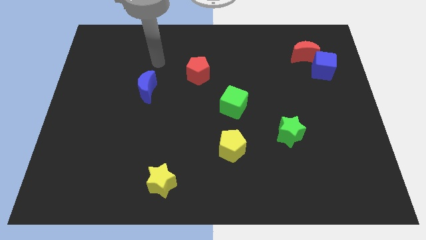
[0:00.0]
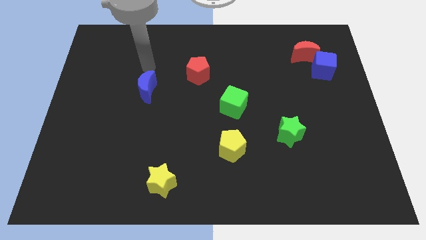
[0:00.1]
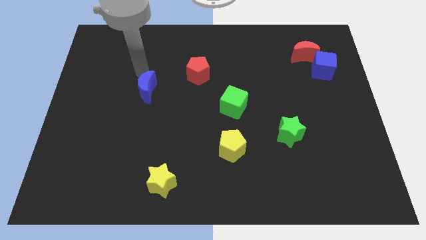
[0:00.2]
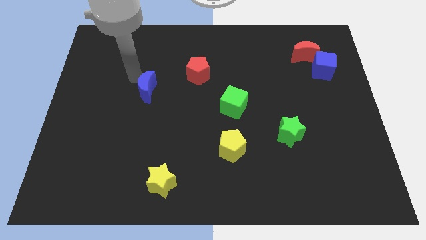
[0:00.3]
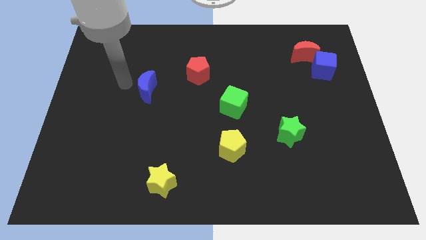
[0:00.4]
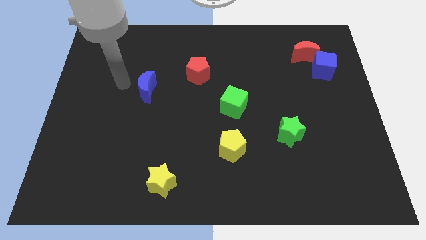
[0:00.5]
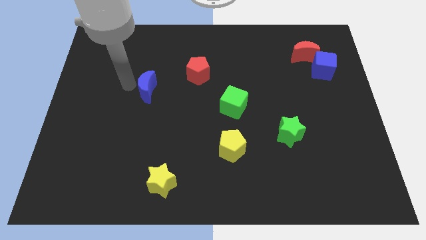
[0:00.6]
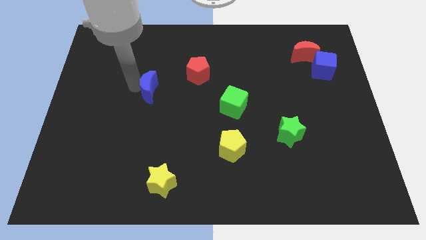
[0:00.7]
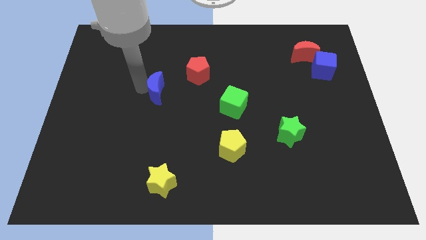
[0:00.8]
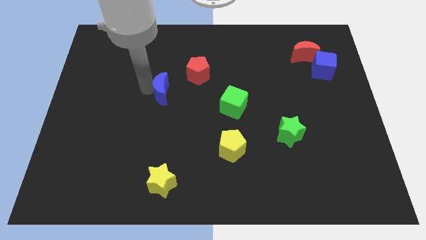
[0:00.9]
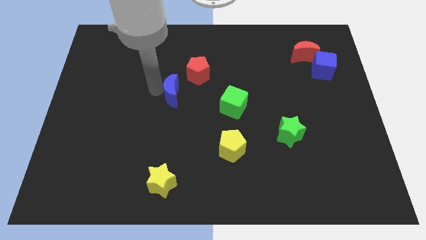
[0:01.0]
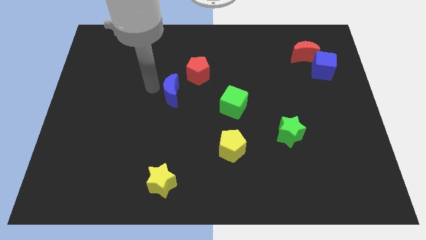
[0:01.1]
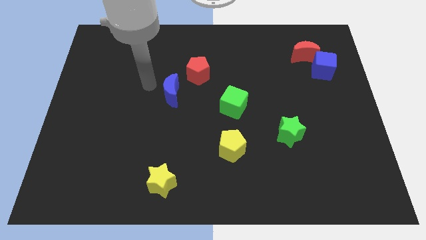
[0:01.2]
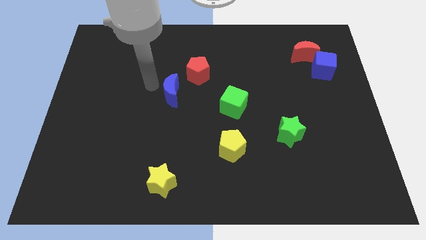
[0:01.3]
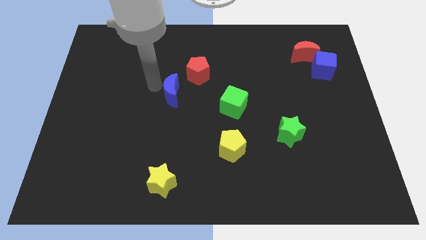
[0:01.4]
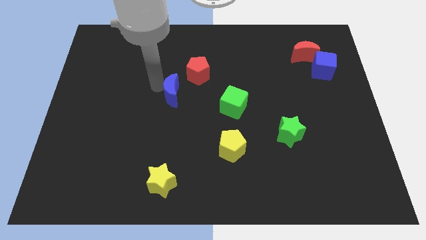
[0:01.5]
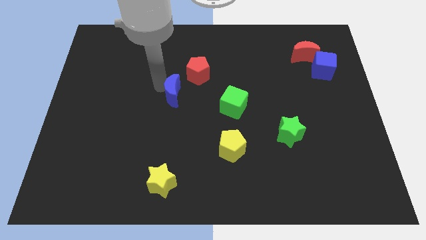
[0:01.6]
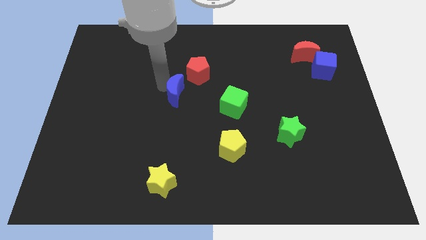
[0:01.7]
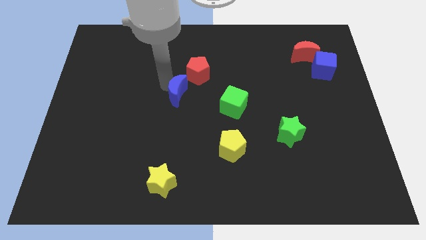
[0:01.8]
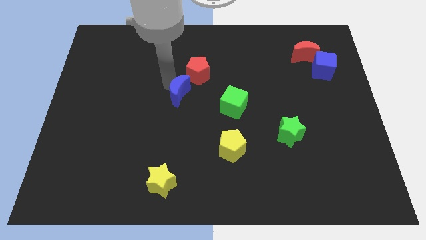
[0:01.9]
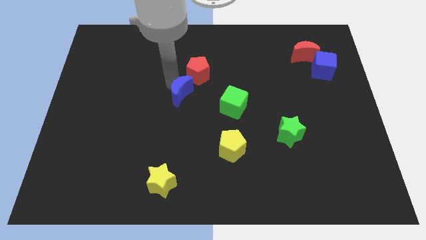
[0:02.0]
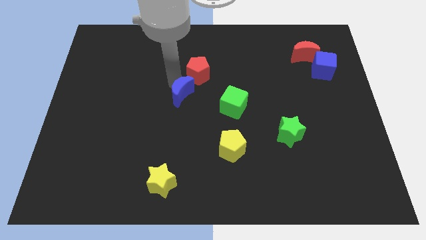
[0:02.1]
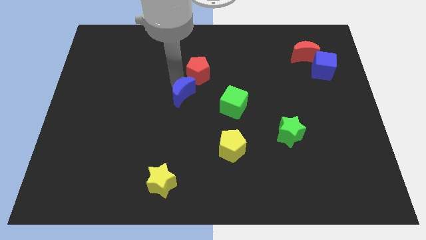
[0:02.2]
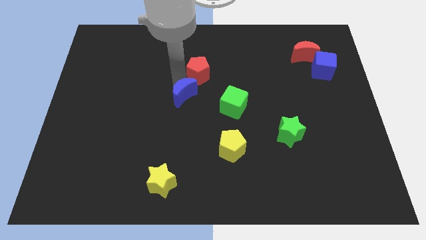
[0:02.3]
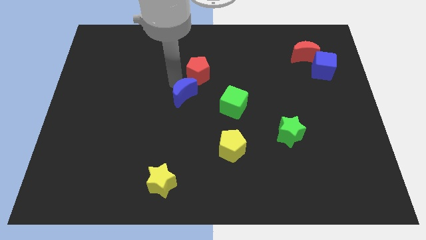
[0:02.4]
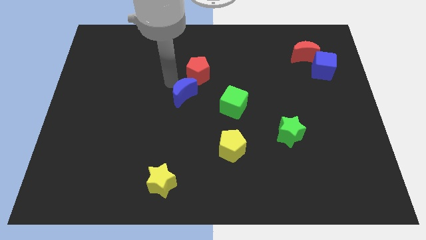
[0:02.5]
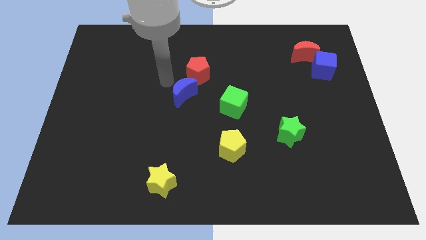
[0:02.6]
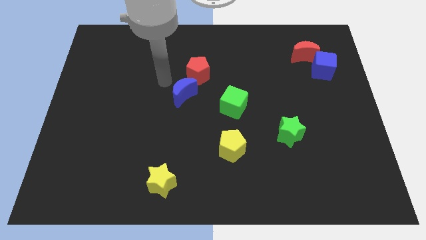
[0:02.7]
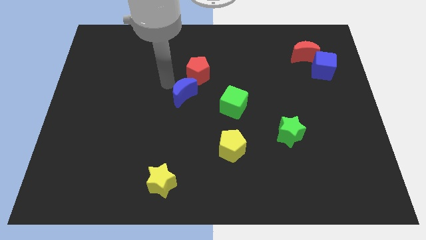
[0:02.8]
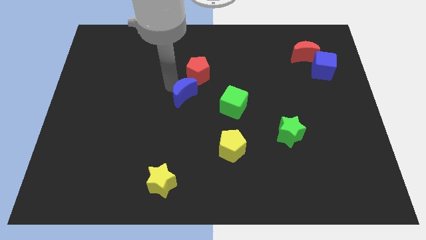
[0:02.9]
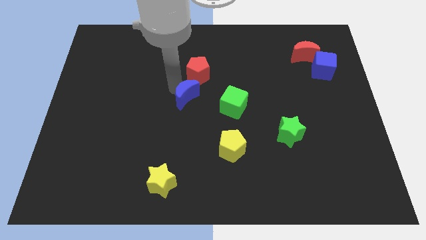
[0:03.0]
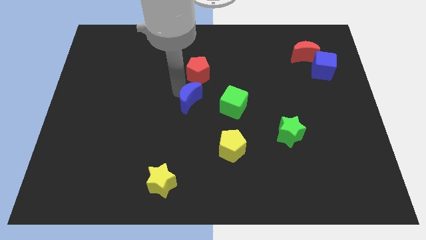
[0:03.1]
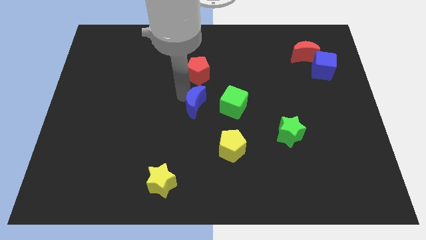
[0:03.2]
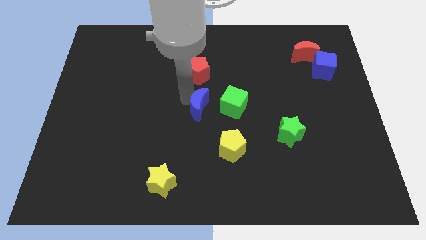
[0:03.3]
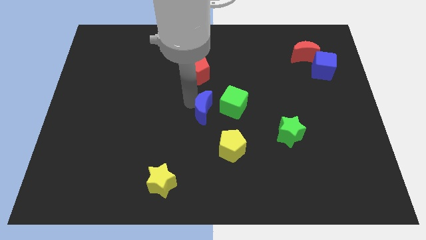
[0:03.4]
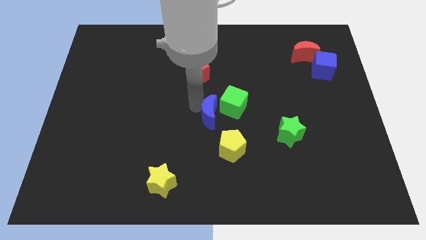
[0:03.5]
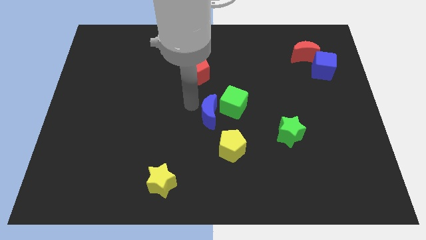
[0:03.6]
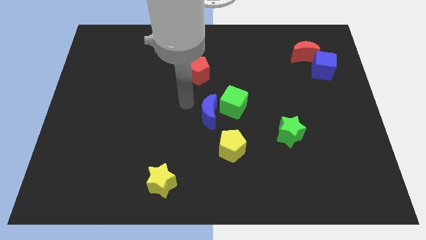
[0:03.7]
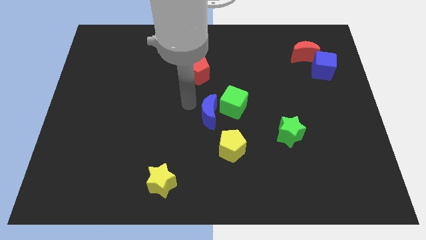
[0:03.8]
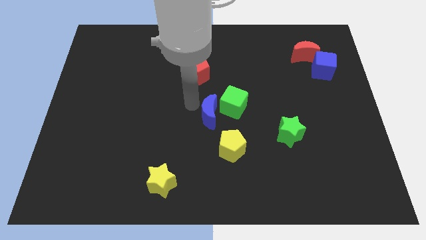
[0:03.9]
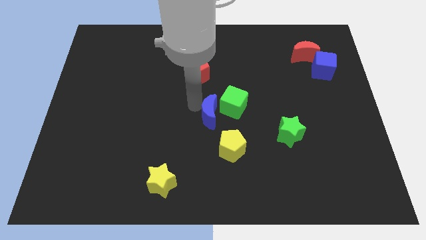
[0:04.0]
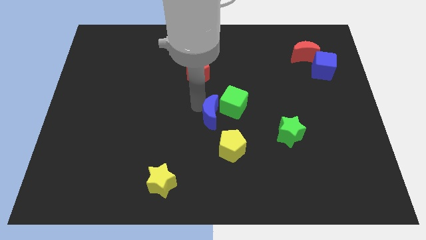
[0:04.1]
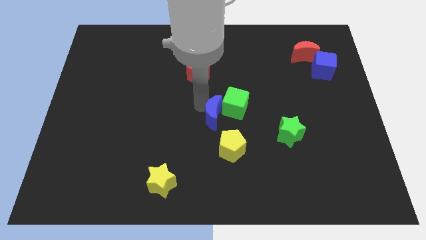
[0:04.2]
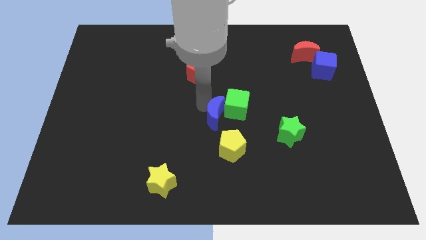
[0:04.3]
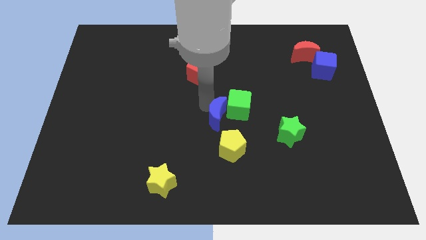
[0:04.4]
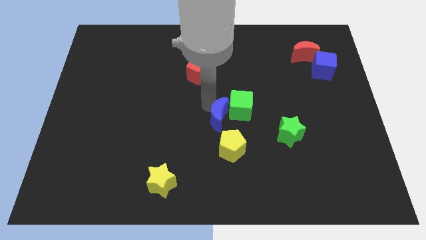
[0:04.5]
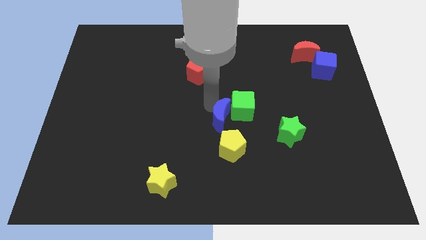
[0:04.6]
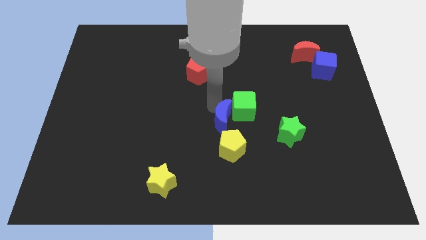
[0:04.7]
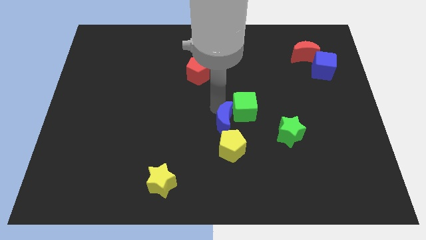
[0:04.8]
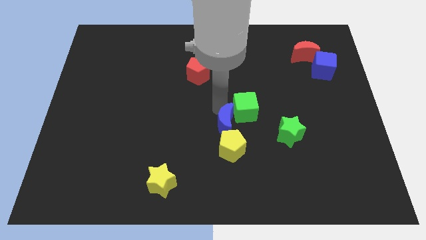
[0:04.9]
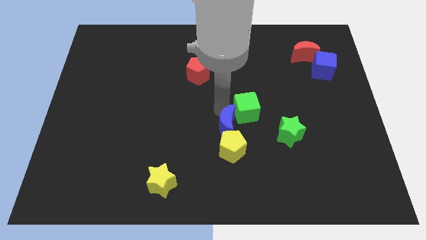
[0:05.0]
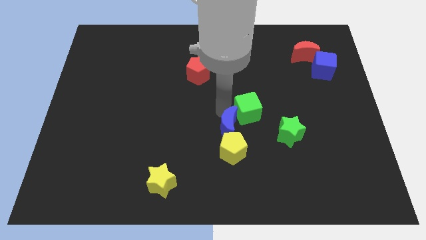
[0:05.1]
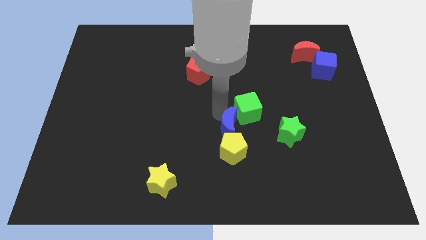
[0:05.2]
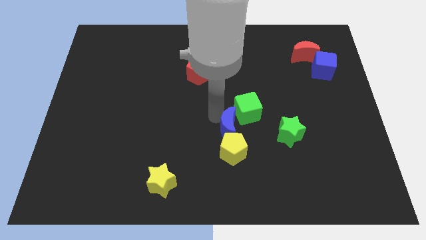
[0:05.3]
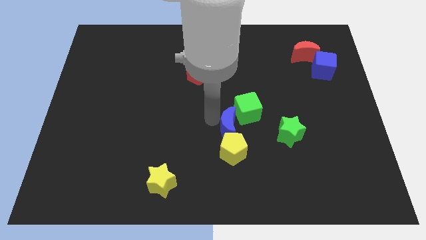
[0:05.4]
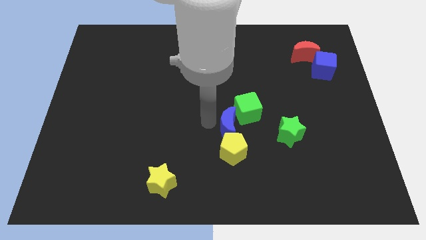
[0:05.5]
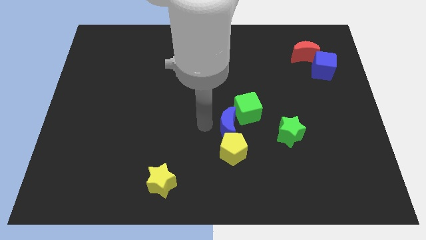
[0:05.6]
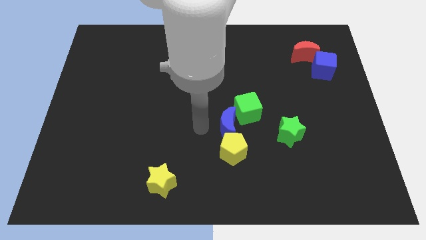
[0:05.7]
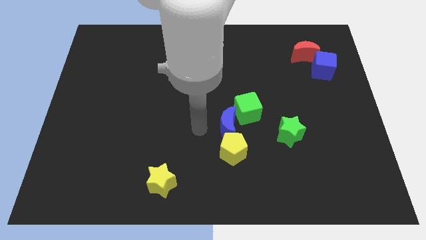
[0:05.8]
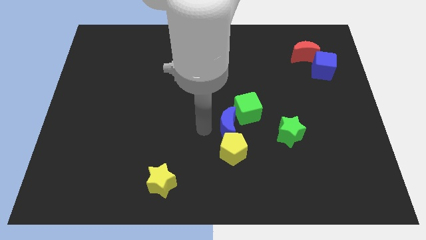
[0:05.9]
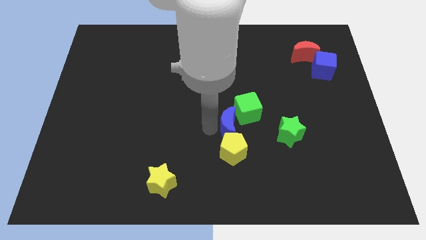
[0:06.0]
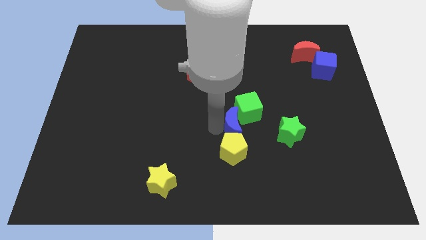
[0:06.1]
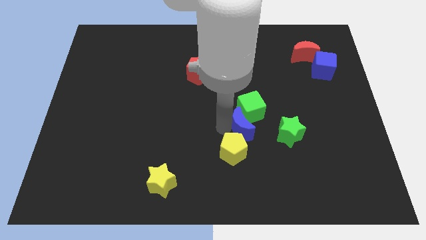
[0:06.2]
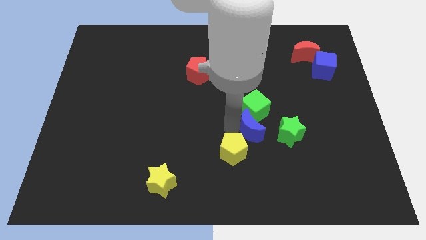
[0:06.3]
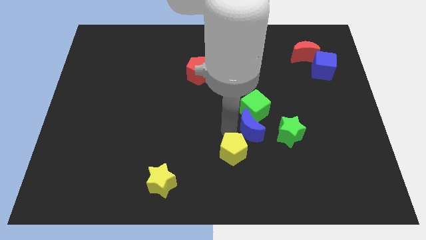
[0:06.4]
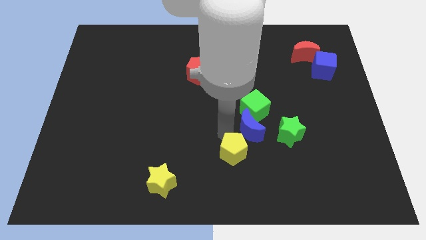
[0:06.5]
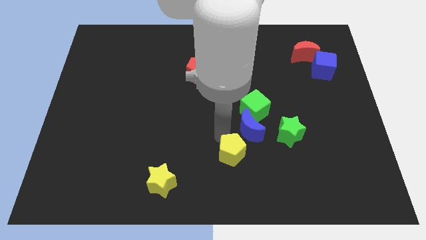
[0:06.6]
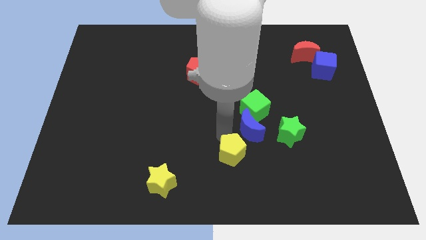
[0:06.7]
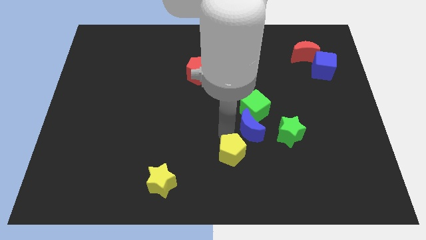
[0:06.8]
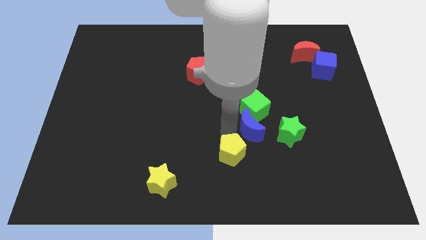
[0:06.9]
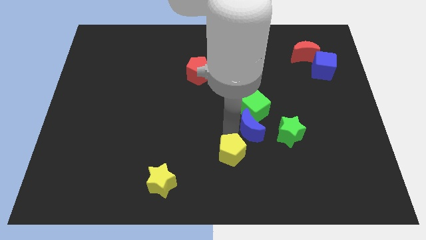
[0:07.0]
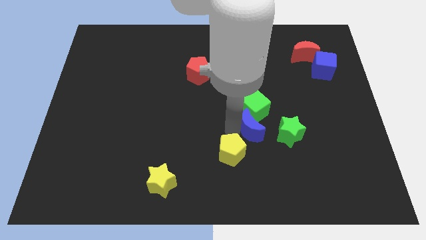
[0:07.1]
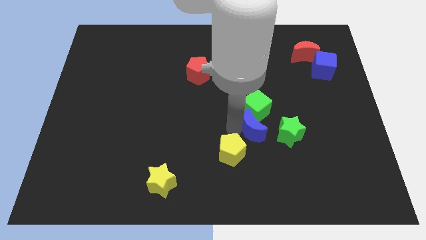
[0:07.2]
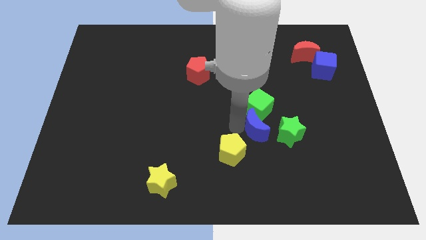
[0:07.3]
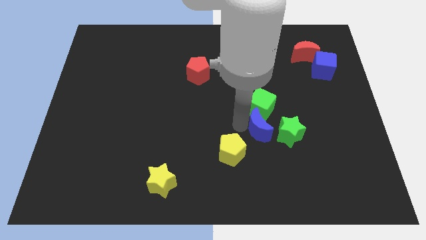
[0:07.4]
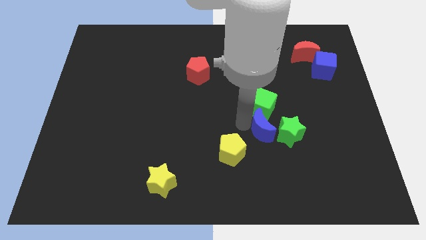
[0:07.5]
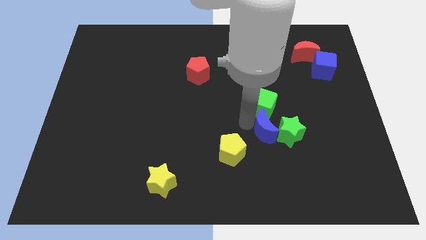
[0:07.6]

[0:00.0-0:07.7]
slide the blue moon towards the green star
